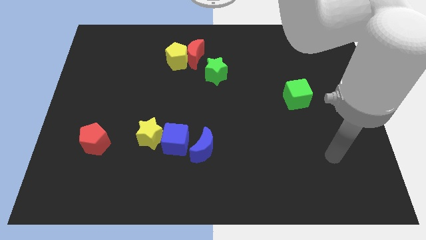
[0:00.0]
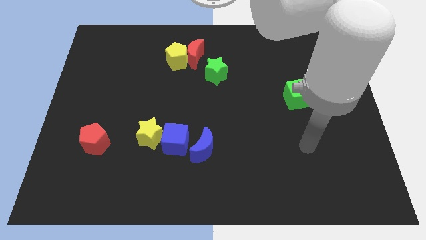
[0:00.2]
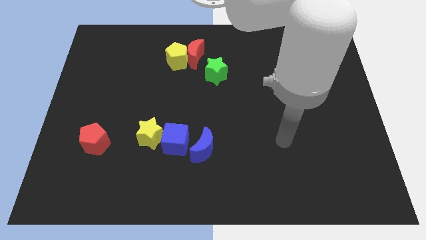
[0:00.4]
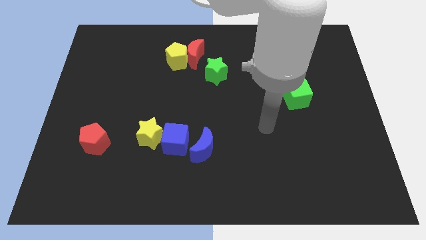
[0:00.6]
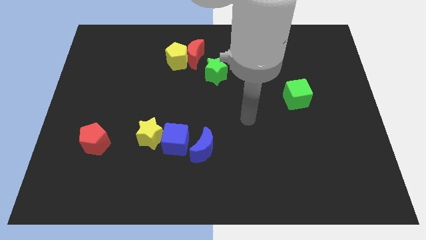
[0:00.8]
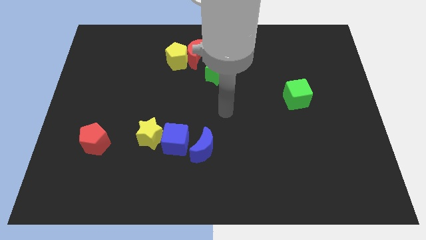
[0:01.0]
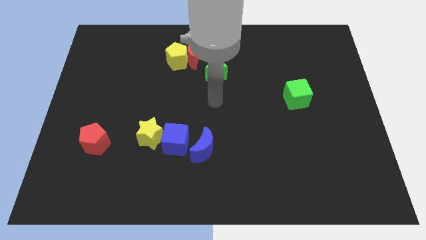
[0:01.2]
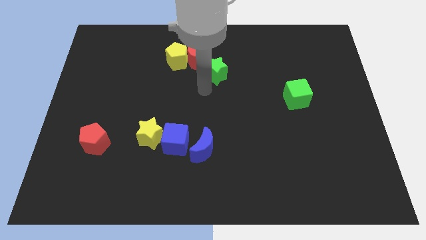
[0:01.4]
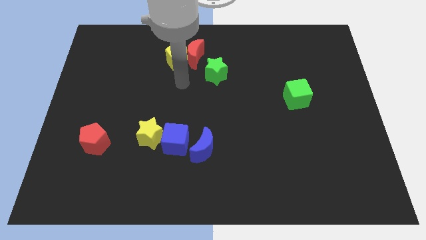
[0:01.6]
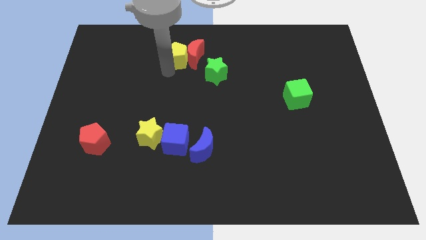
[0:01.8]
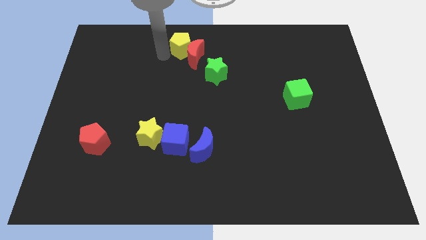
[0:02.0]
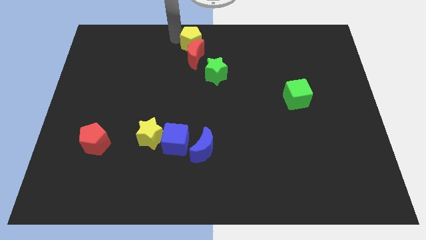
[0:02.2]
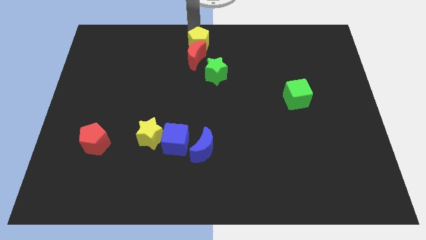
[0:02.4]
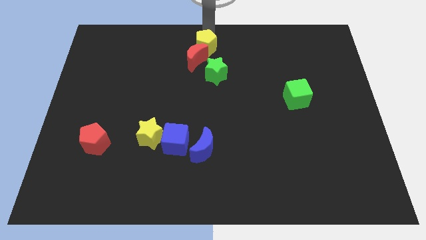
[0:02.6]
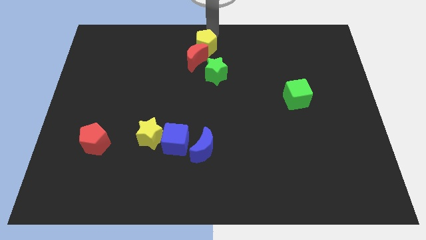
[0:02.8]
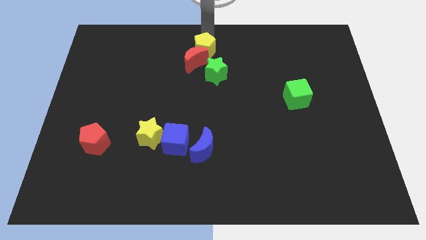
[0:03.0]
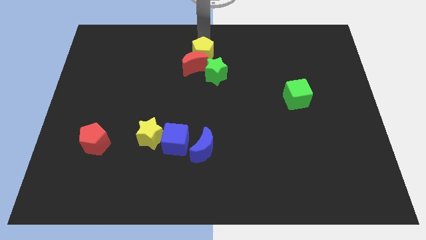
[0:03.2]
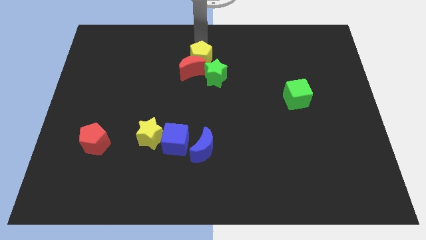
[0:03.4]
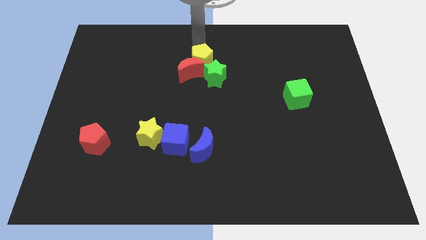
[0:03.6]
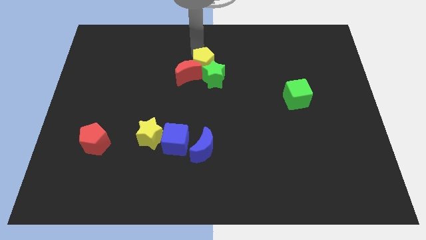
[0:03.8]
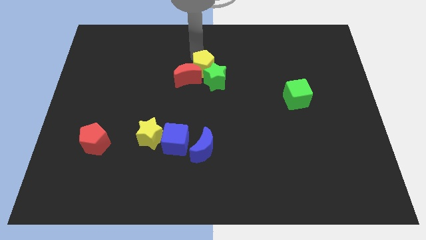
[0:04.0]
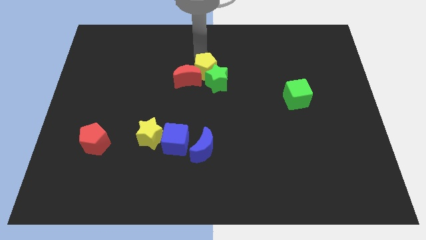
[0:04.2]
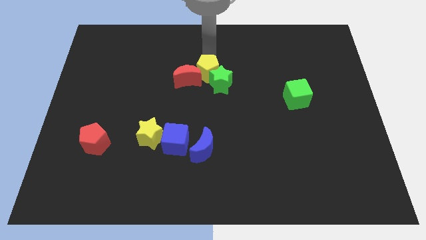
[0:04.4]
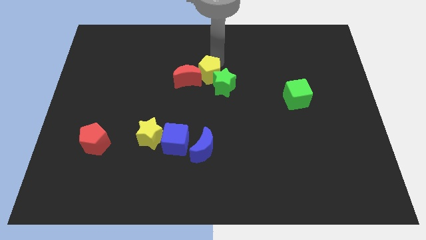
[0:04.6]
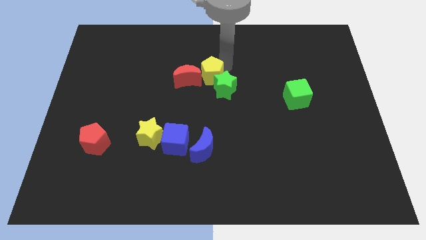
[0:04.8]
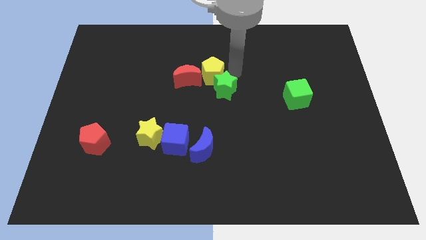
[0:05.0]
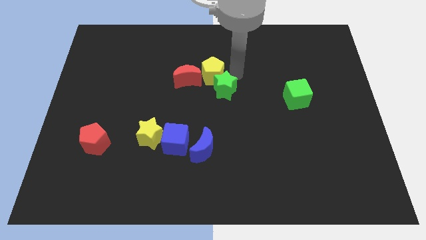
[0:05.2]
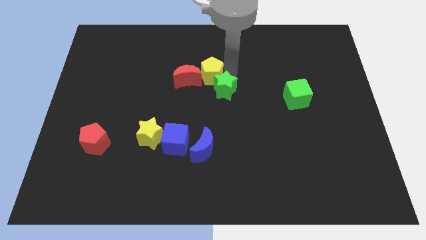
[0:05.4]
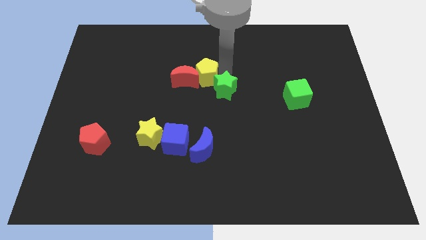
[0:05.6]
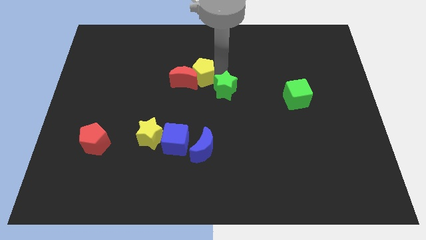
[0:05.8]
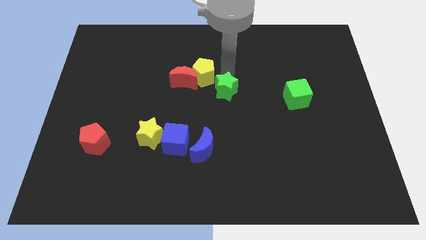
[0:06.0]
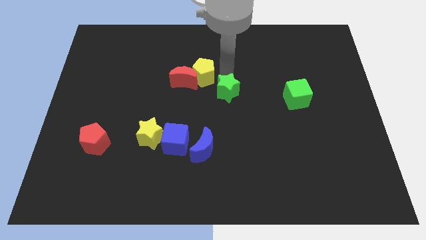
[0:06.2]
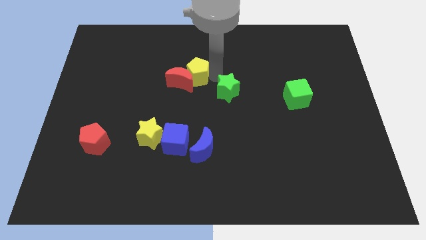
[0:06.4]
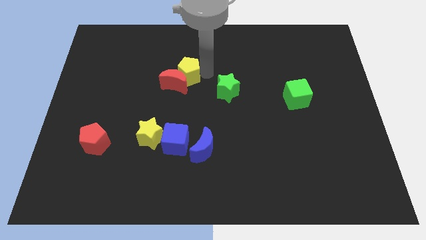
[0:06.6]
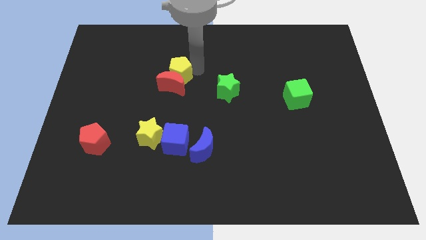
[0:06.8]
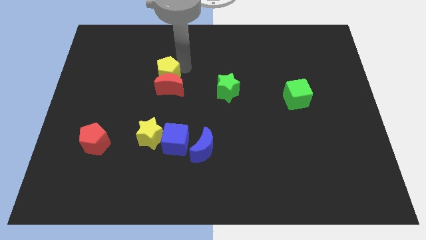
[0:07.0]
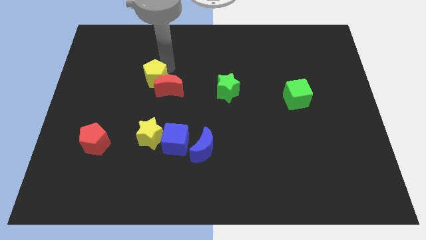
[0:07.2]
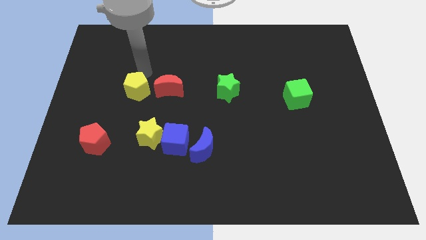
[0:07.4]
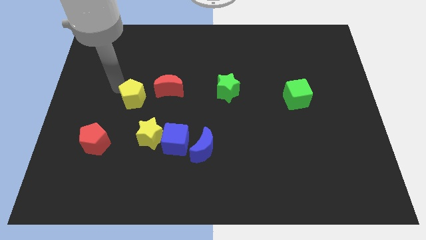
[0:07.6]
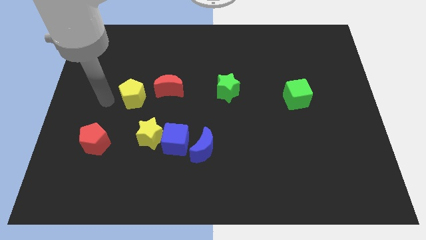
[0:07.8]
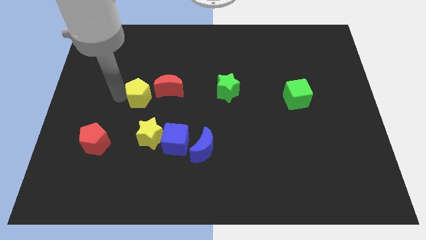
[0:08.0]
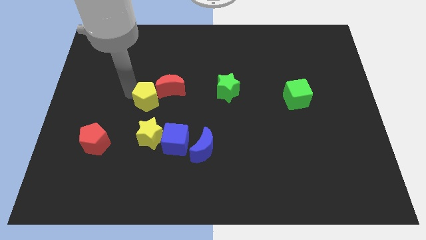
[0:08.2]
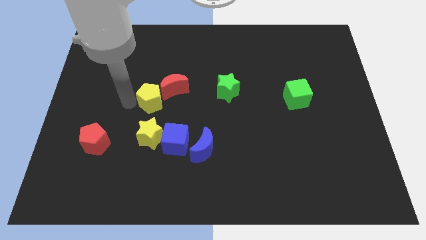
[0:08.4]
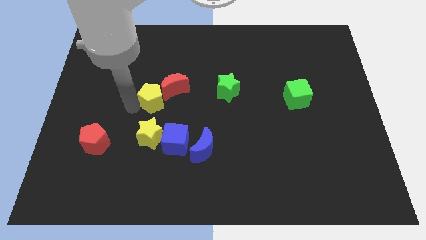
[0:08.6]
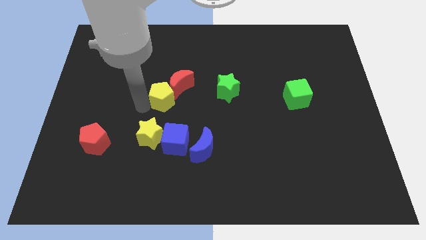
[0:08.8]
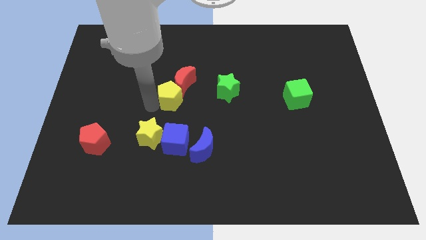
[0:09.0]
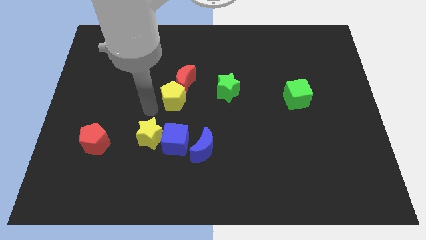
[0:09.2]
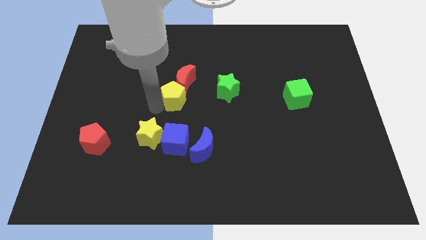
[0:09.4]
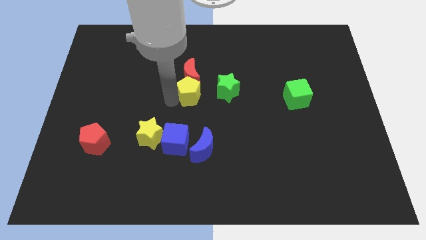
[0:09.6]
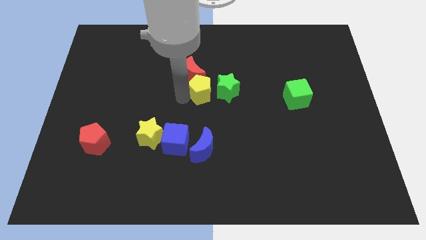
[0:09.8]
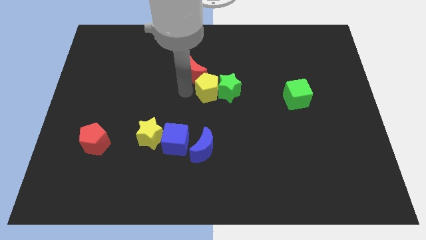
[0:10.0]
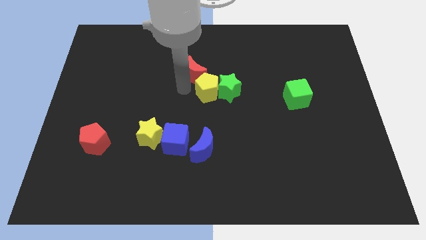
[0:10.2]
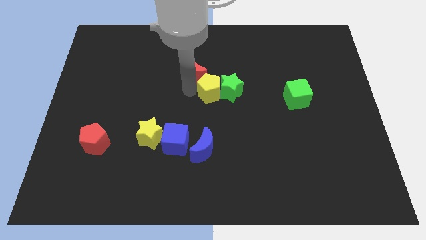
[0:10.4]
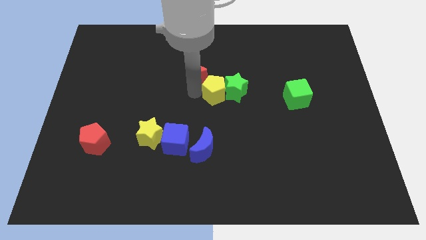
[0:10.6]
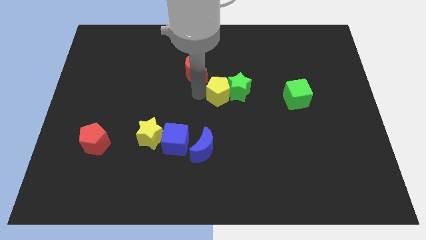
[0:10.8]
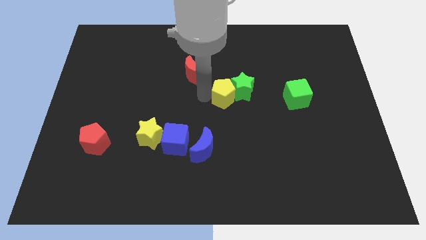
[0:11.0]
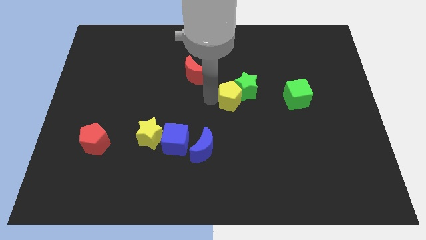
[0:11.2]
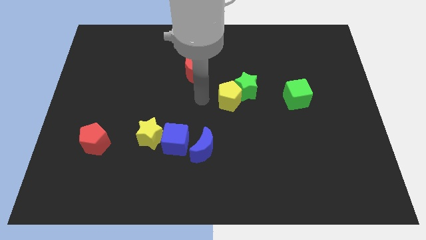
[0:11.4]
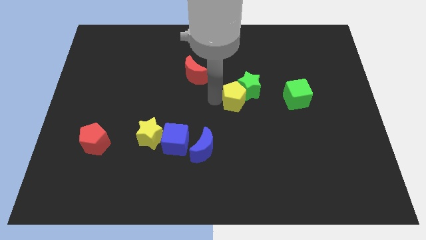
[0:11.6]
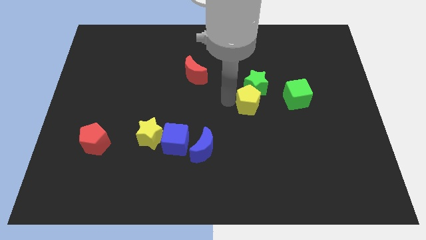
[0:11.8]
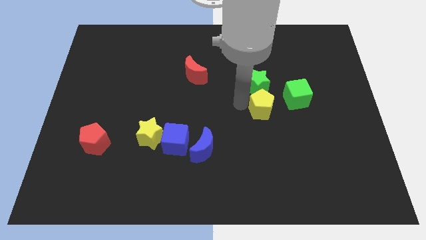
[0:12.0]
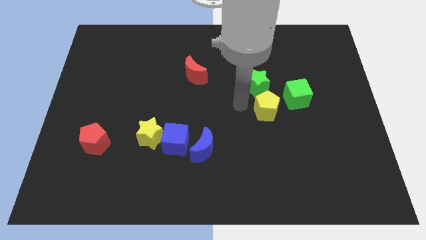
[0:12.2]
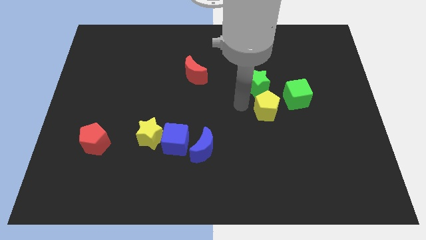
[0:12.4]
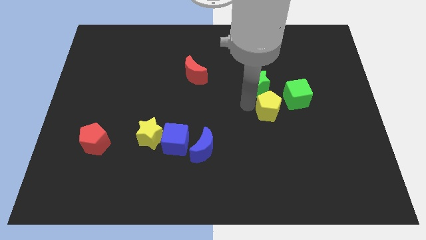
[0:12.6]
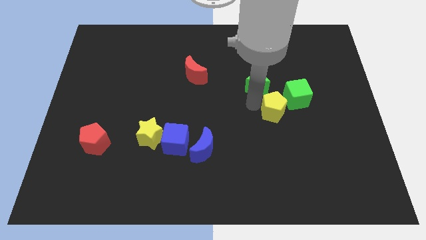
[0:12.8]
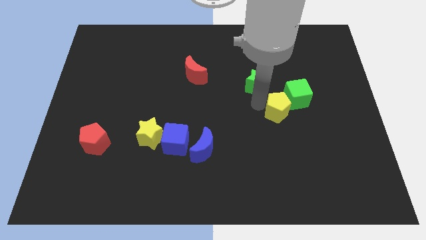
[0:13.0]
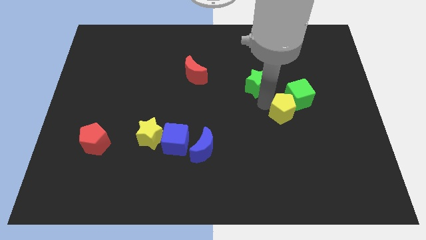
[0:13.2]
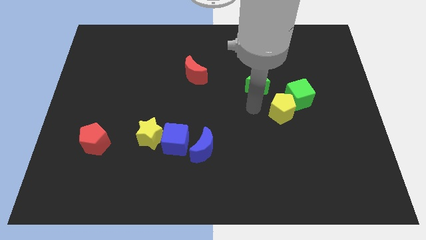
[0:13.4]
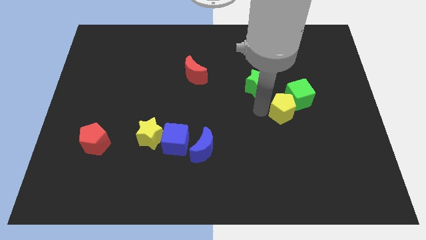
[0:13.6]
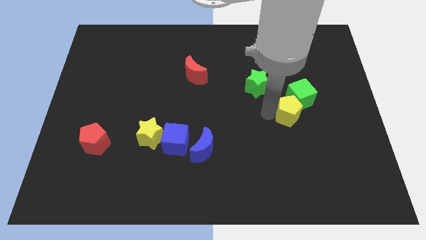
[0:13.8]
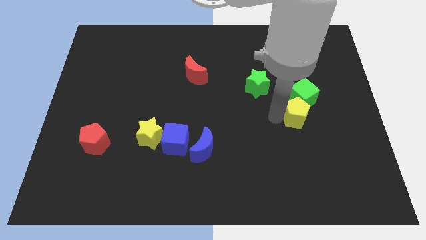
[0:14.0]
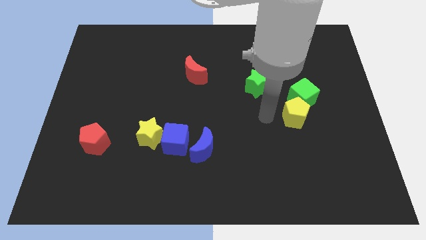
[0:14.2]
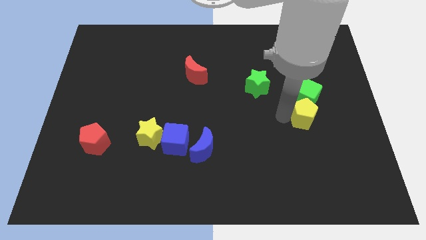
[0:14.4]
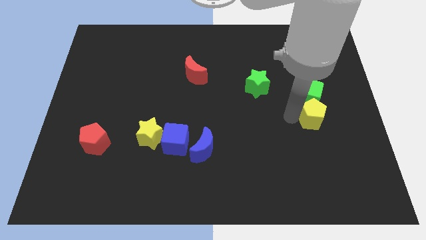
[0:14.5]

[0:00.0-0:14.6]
slide the yellow pentagon to the bottom right of the green cube
